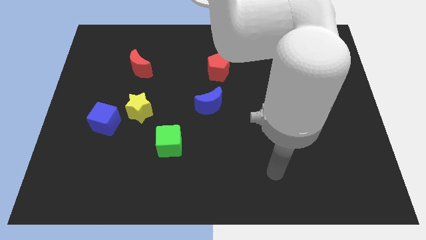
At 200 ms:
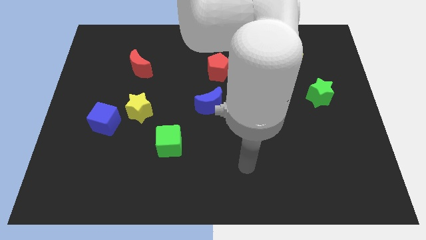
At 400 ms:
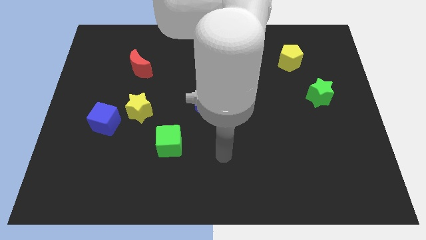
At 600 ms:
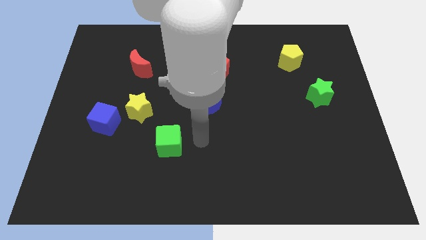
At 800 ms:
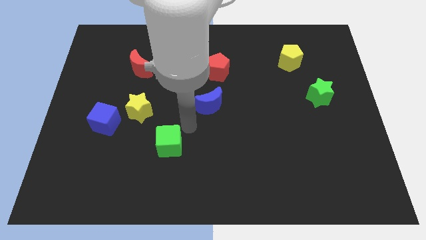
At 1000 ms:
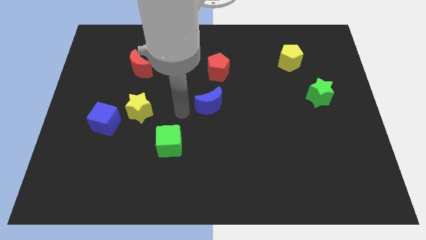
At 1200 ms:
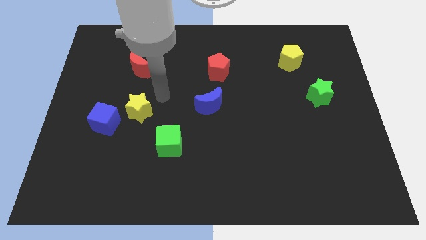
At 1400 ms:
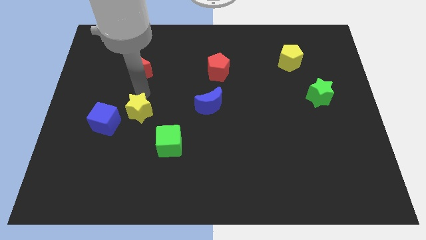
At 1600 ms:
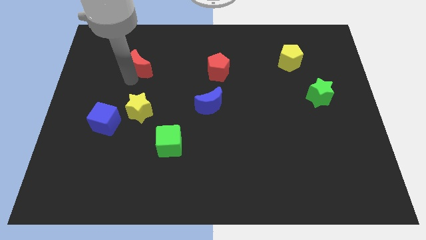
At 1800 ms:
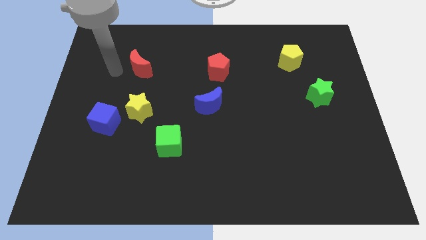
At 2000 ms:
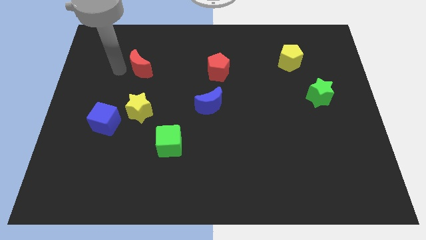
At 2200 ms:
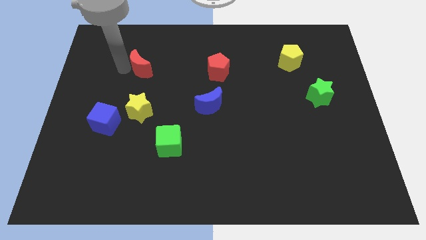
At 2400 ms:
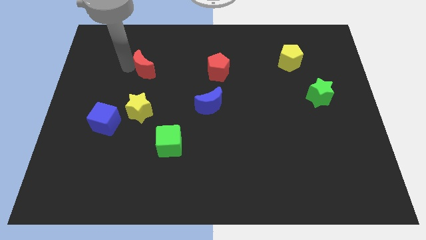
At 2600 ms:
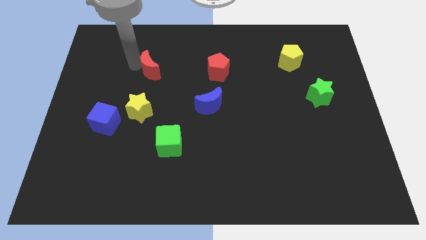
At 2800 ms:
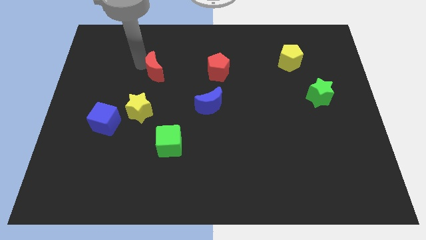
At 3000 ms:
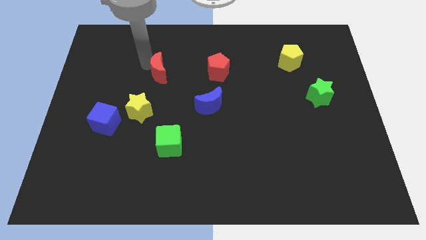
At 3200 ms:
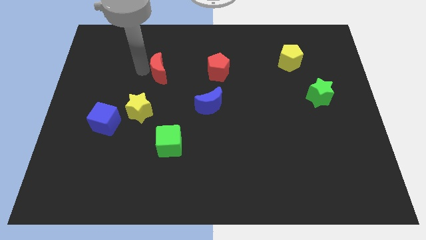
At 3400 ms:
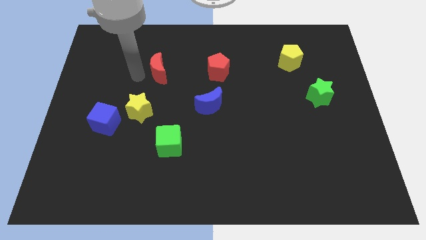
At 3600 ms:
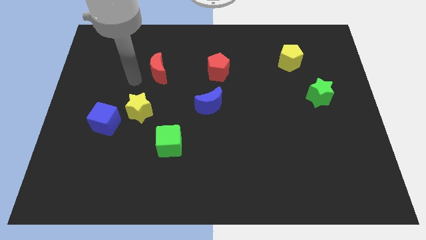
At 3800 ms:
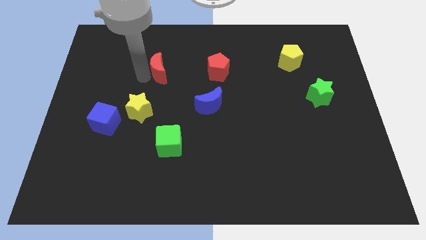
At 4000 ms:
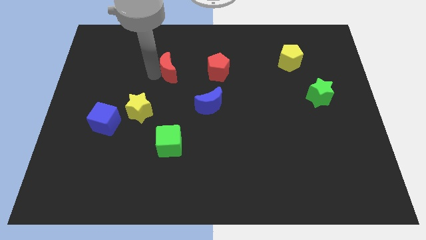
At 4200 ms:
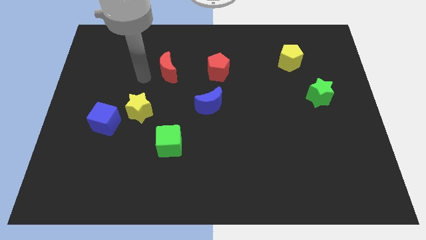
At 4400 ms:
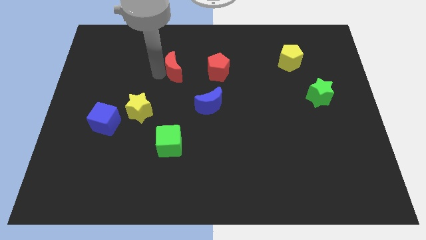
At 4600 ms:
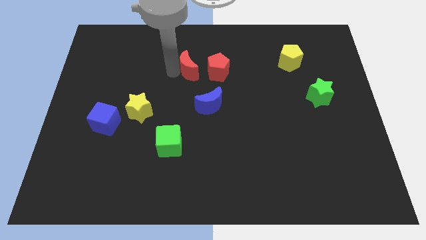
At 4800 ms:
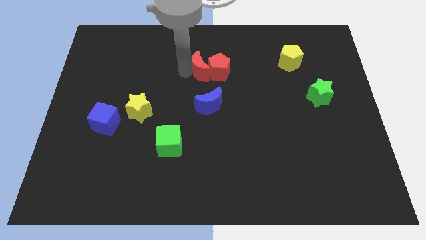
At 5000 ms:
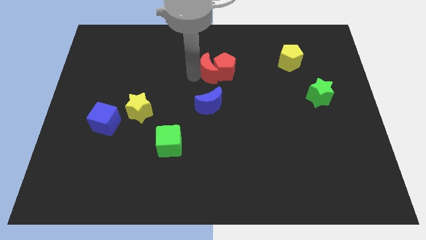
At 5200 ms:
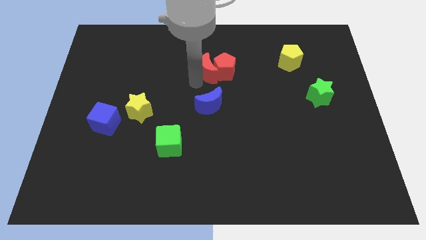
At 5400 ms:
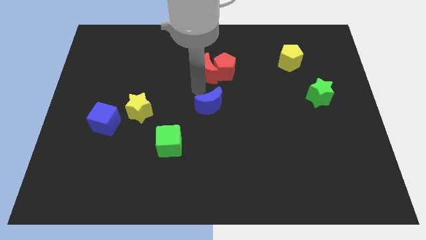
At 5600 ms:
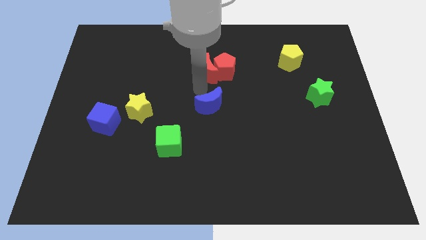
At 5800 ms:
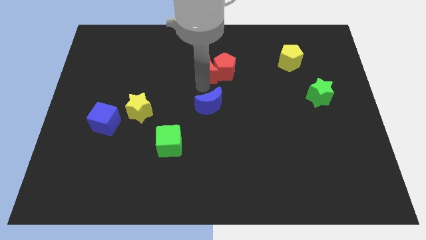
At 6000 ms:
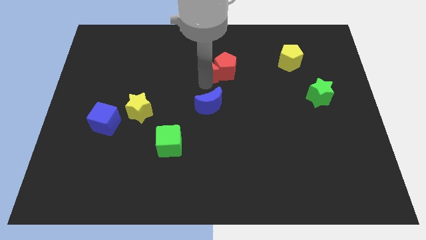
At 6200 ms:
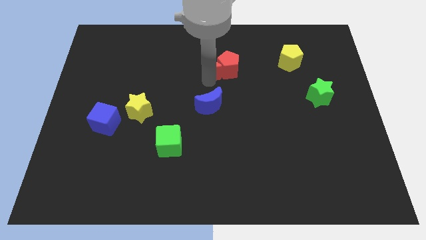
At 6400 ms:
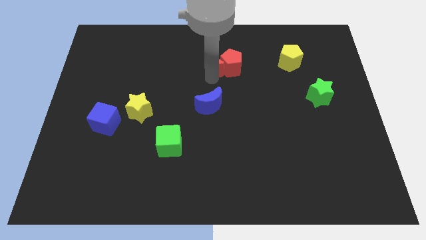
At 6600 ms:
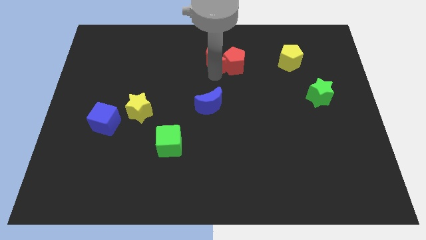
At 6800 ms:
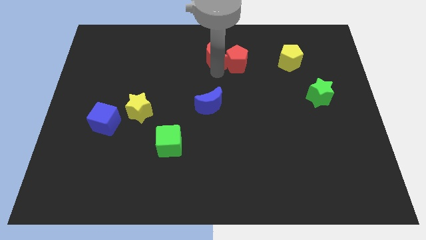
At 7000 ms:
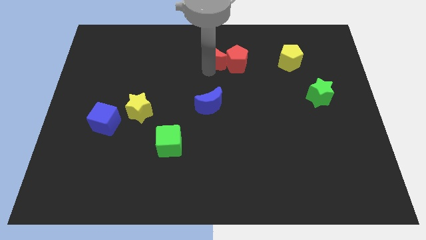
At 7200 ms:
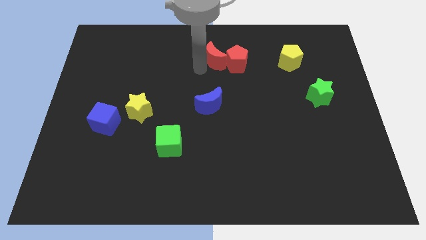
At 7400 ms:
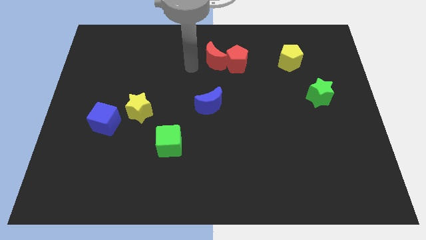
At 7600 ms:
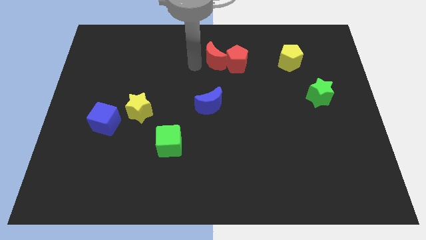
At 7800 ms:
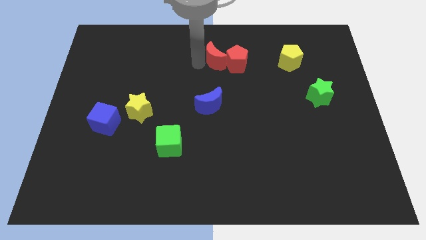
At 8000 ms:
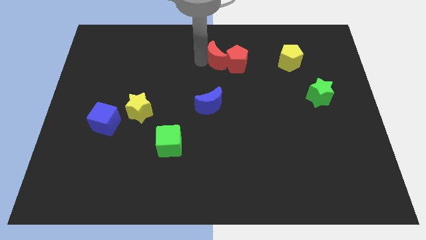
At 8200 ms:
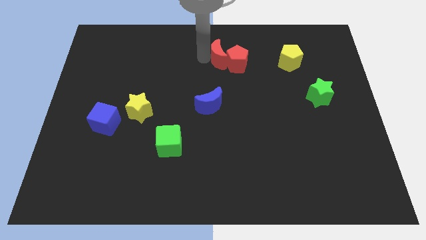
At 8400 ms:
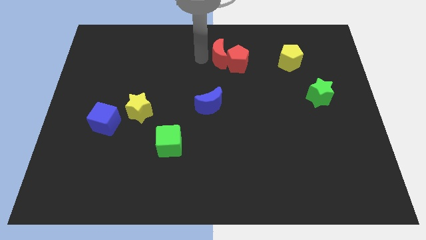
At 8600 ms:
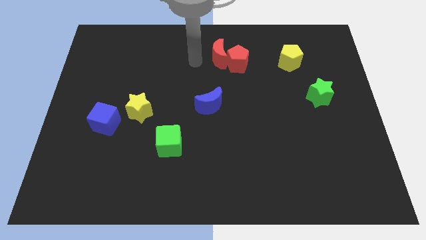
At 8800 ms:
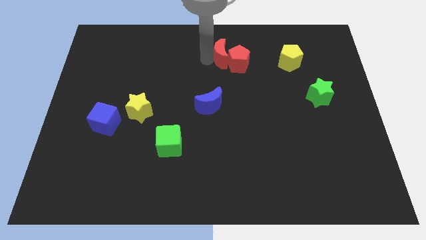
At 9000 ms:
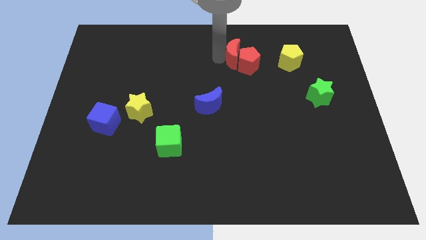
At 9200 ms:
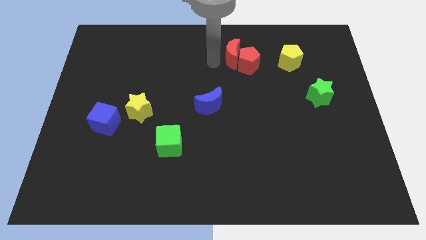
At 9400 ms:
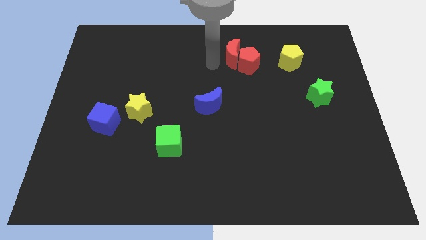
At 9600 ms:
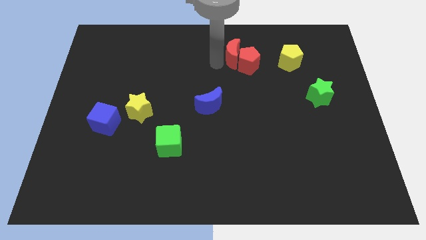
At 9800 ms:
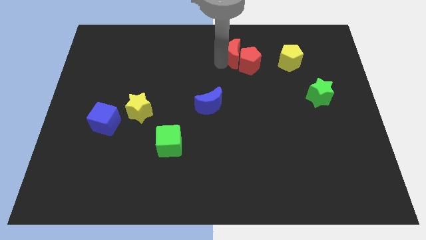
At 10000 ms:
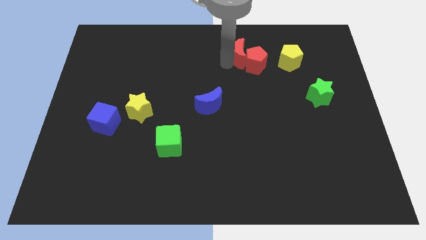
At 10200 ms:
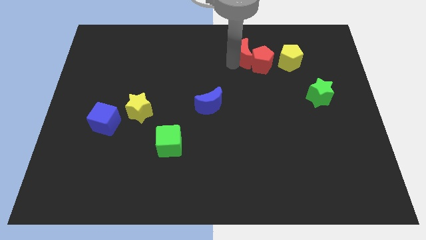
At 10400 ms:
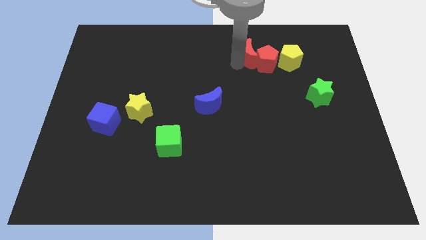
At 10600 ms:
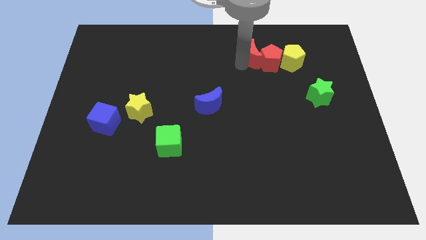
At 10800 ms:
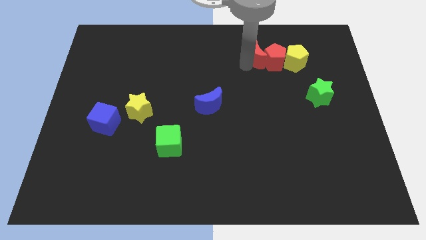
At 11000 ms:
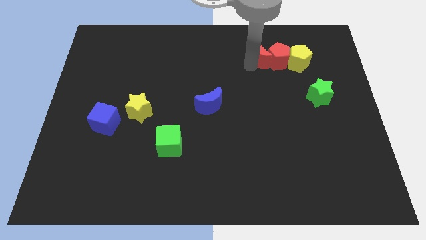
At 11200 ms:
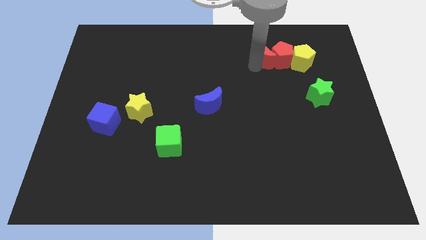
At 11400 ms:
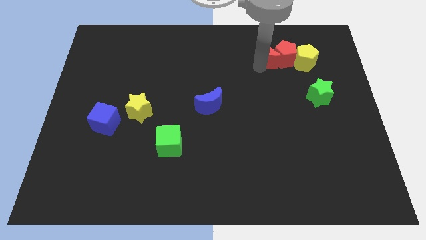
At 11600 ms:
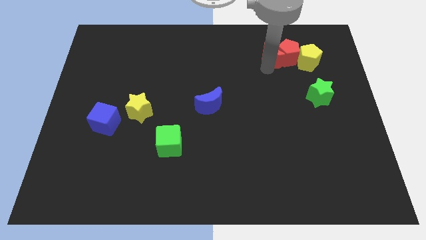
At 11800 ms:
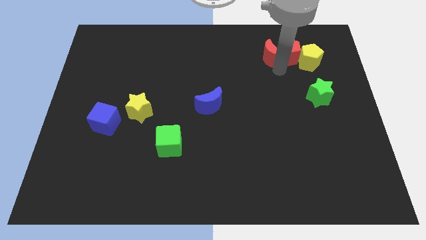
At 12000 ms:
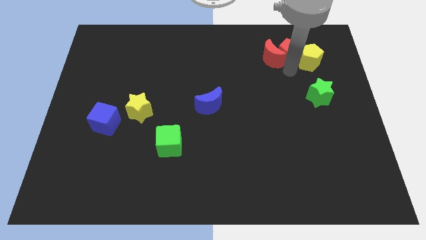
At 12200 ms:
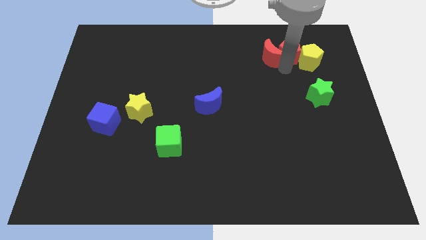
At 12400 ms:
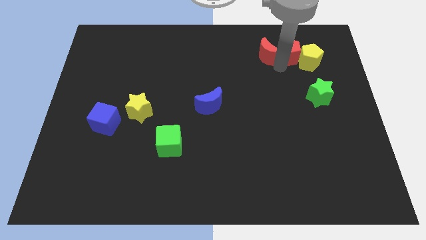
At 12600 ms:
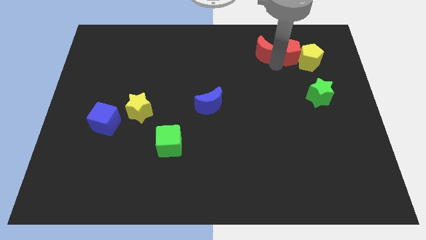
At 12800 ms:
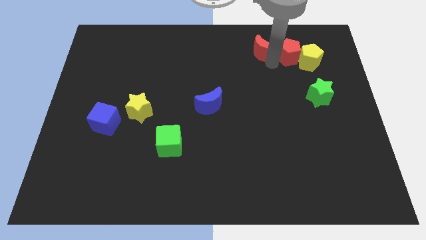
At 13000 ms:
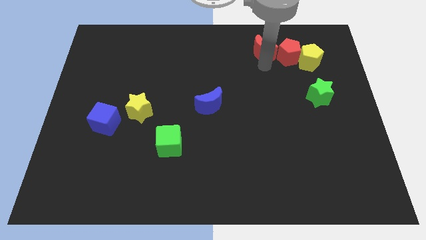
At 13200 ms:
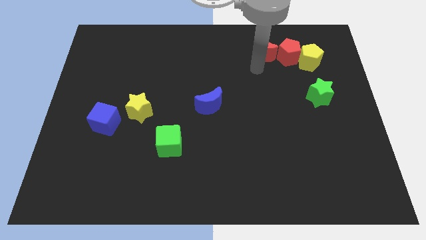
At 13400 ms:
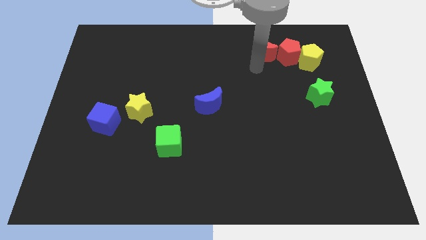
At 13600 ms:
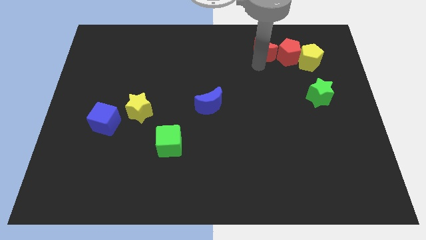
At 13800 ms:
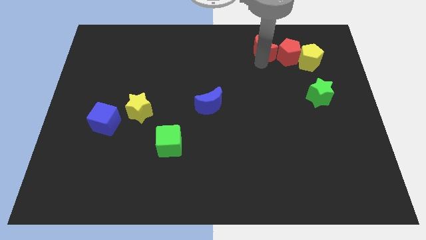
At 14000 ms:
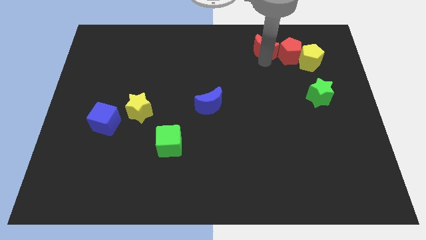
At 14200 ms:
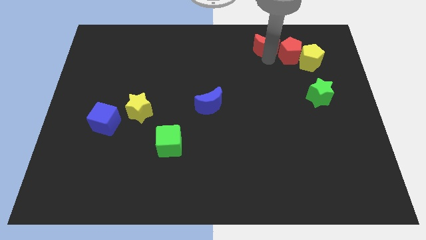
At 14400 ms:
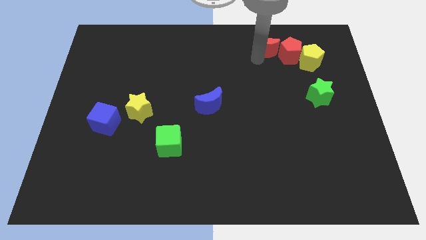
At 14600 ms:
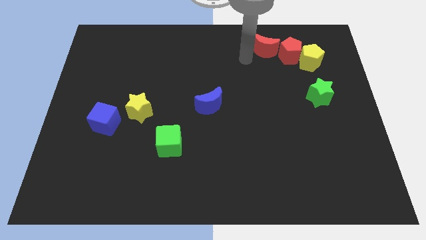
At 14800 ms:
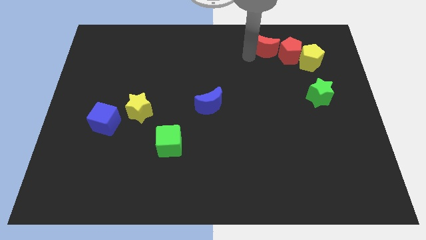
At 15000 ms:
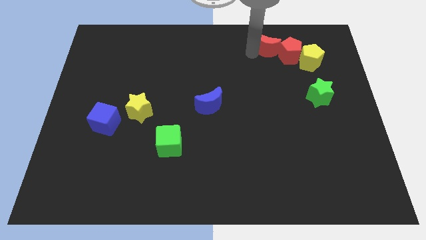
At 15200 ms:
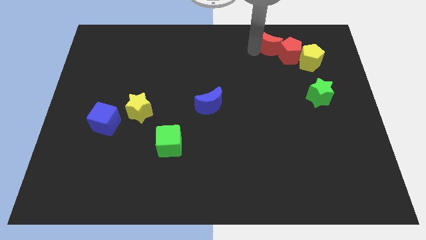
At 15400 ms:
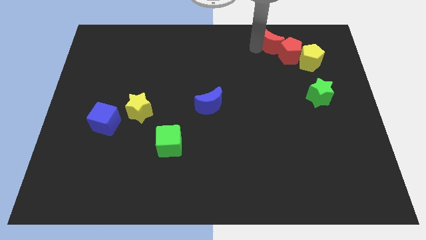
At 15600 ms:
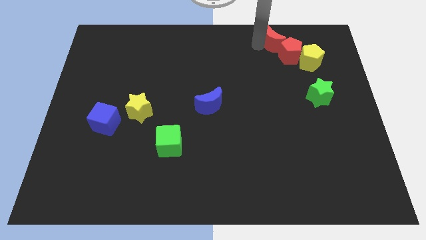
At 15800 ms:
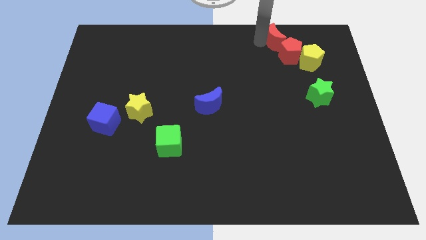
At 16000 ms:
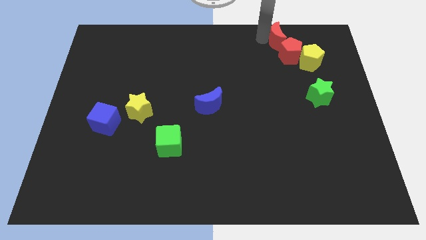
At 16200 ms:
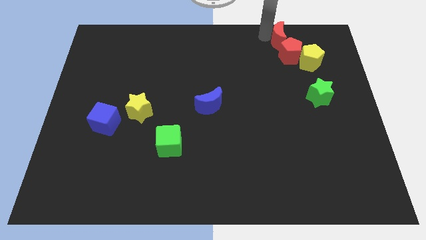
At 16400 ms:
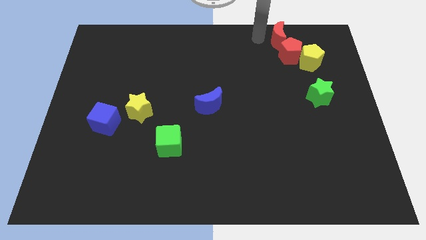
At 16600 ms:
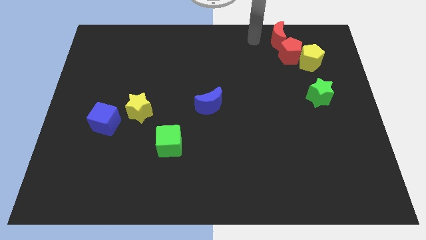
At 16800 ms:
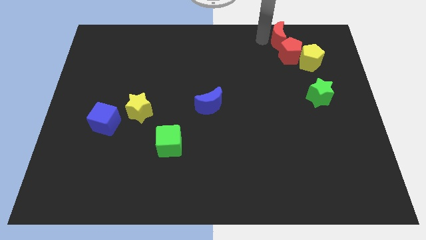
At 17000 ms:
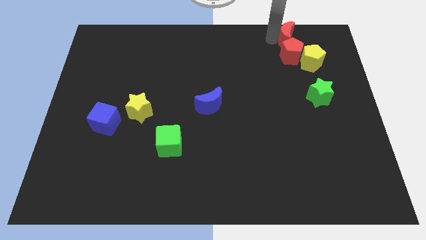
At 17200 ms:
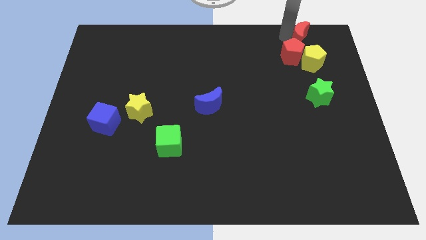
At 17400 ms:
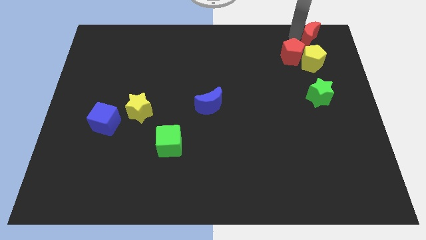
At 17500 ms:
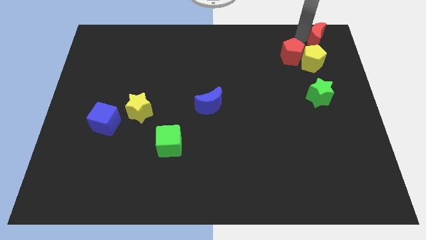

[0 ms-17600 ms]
push the red moon to the top right of the board
